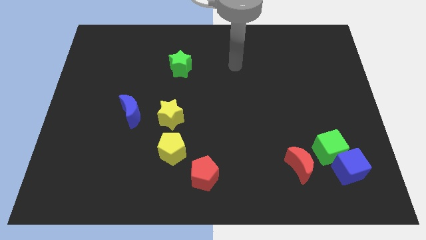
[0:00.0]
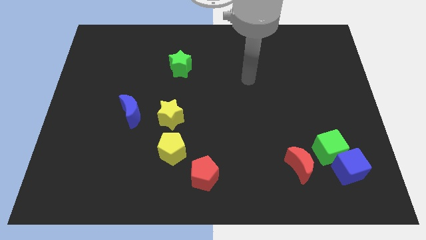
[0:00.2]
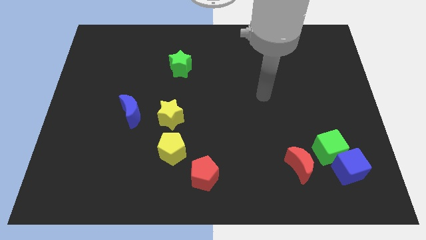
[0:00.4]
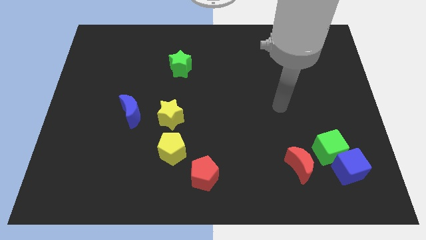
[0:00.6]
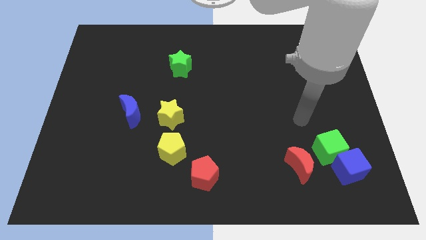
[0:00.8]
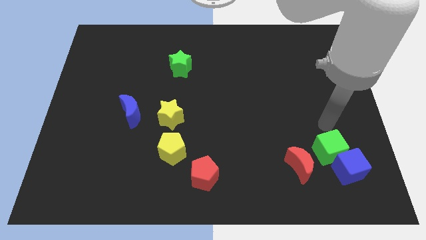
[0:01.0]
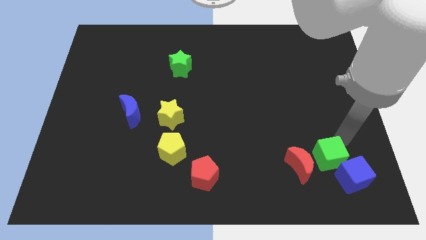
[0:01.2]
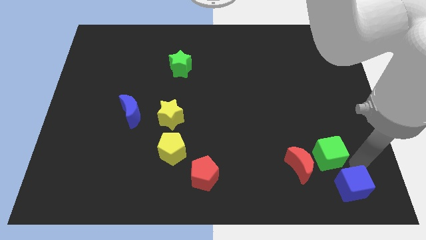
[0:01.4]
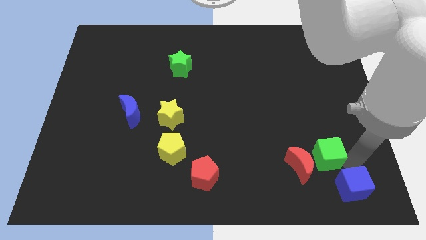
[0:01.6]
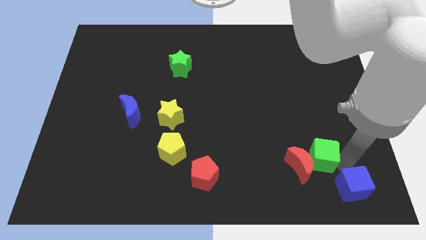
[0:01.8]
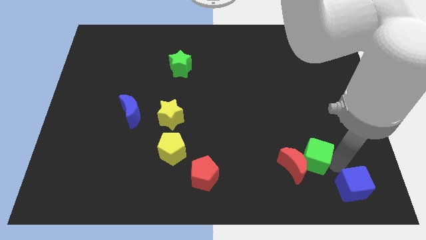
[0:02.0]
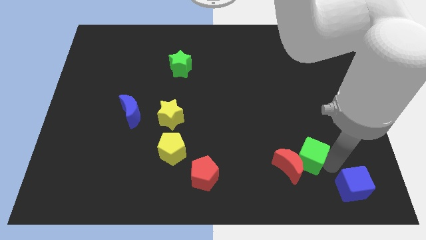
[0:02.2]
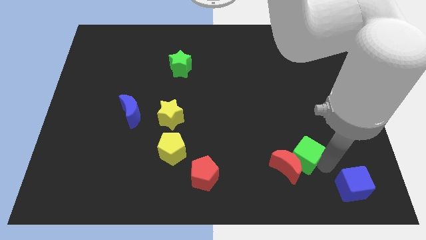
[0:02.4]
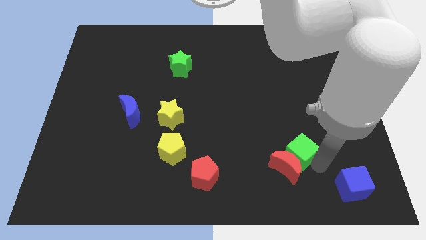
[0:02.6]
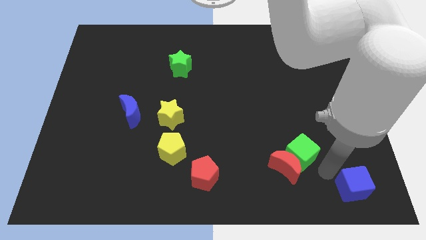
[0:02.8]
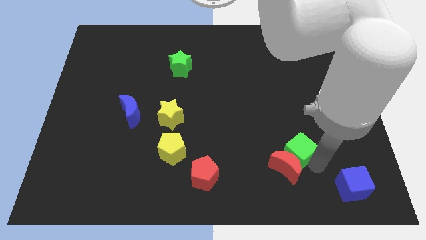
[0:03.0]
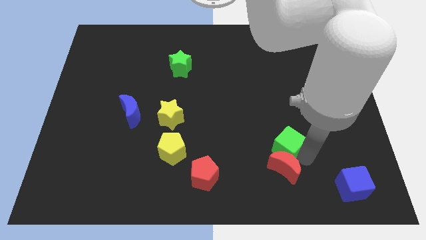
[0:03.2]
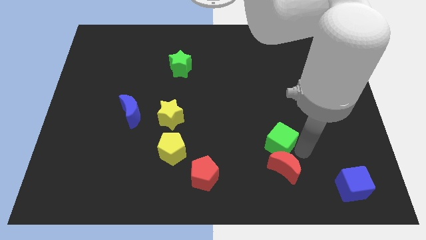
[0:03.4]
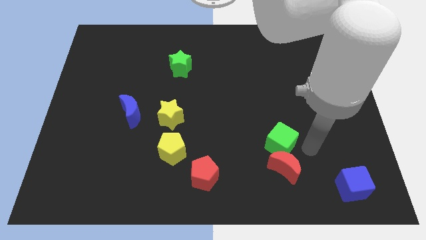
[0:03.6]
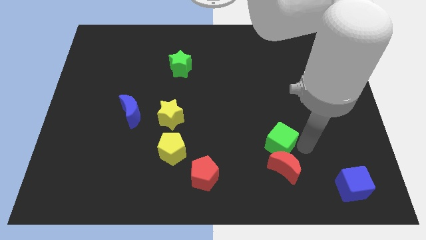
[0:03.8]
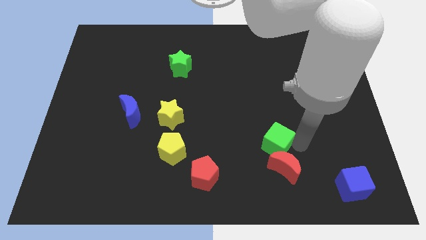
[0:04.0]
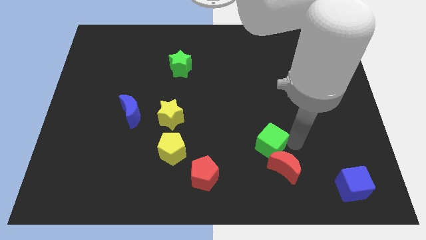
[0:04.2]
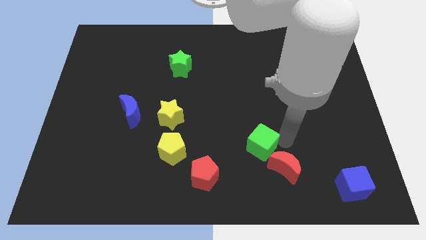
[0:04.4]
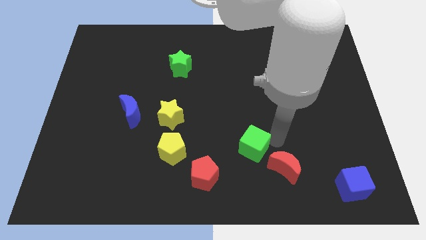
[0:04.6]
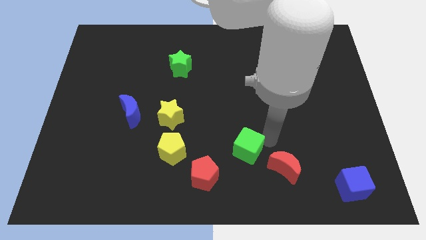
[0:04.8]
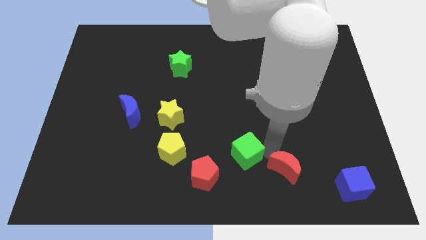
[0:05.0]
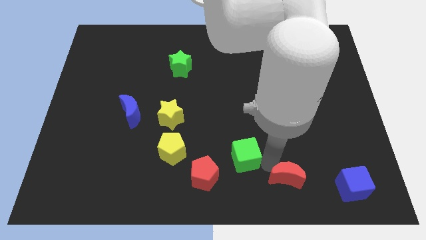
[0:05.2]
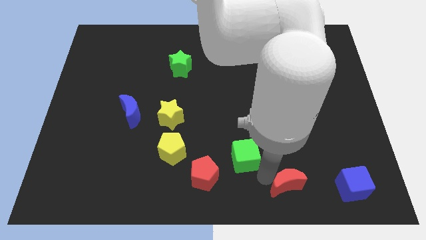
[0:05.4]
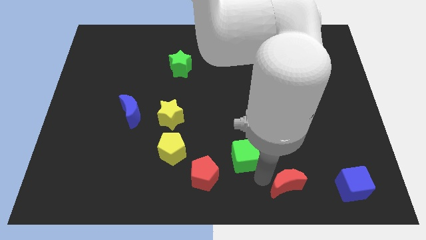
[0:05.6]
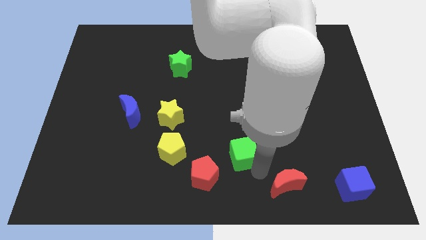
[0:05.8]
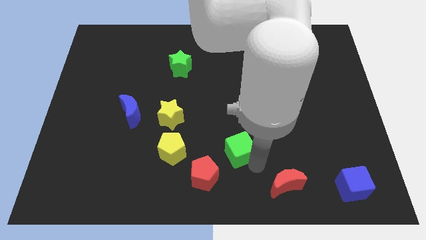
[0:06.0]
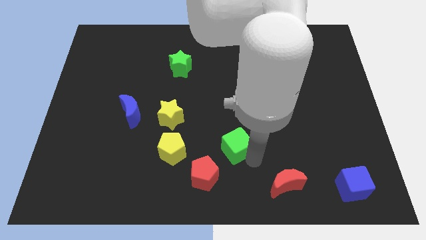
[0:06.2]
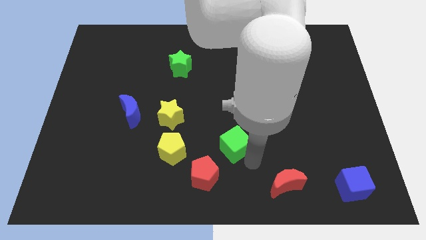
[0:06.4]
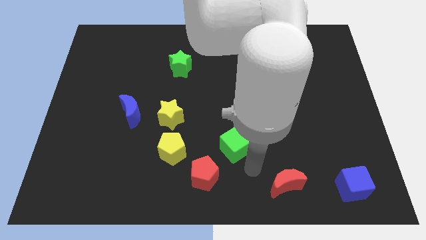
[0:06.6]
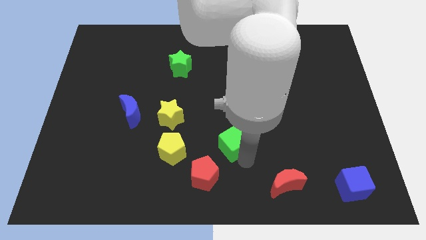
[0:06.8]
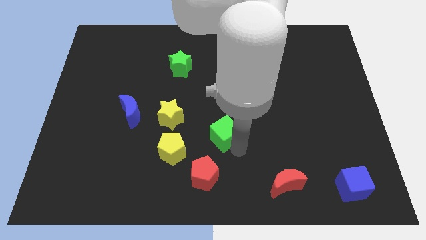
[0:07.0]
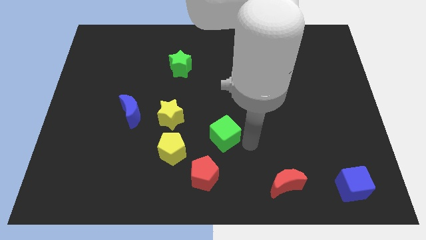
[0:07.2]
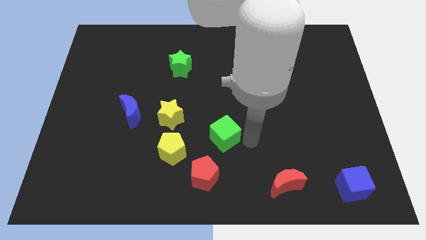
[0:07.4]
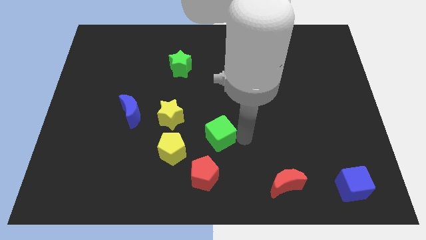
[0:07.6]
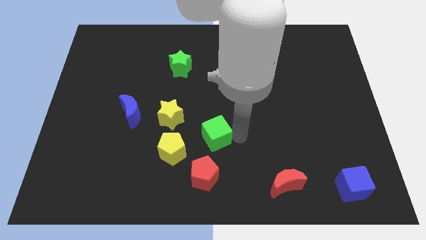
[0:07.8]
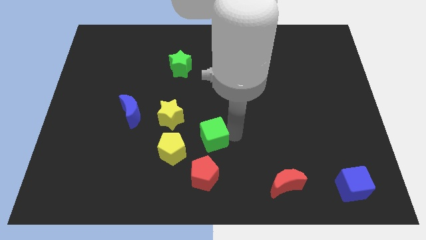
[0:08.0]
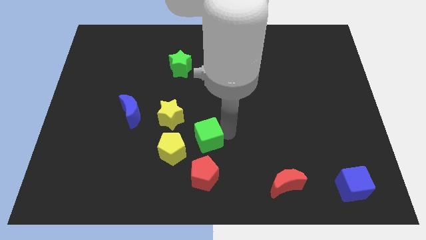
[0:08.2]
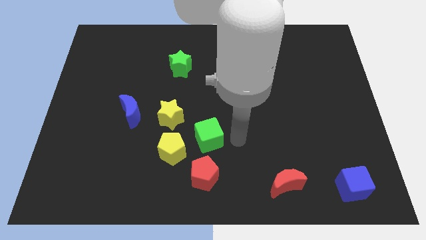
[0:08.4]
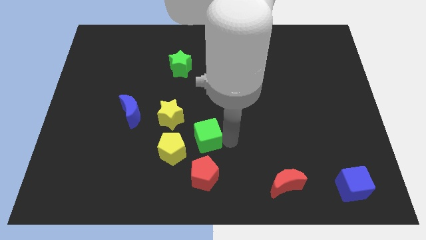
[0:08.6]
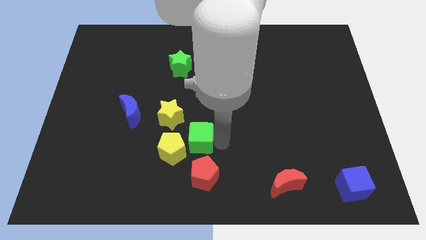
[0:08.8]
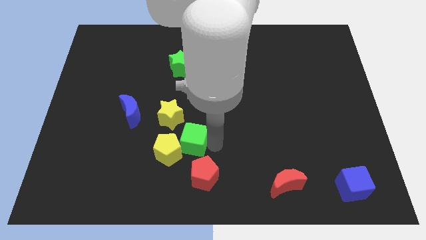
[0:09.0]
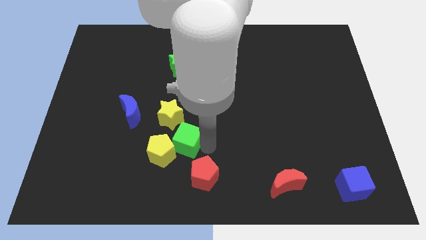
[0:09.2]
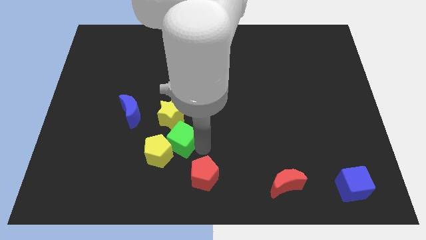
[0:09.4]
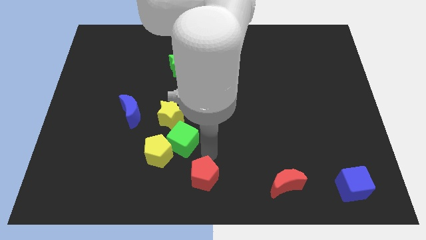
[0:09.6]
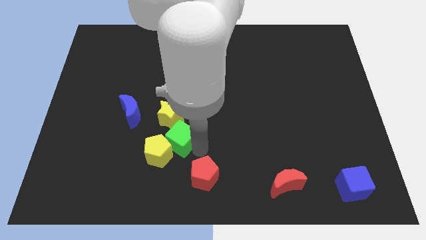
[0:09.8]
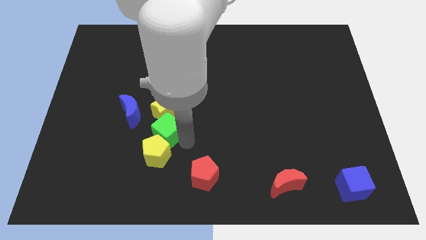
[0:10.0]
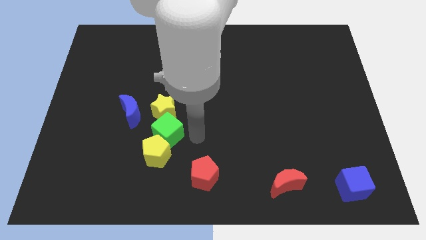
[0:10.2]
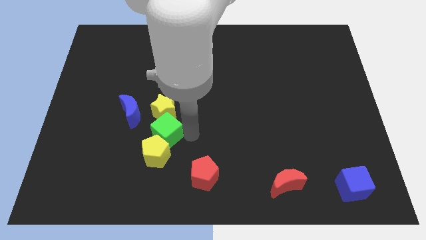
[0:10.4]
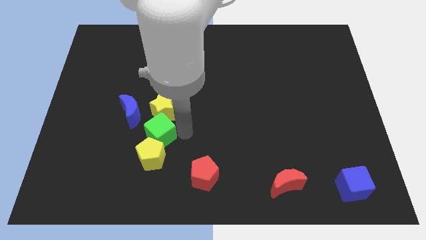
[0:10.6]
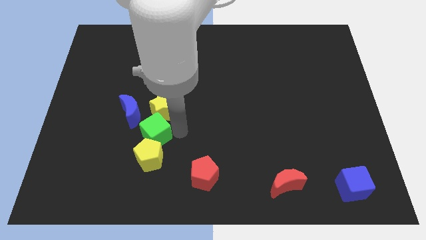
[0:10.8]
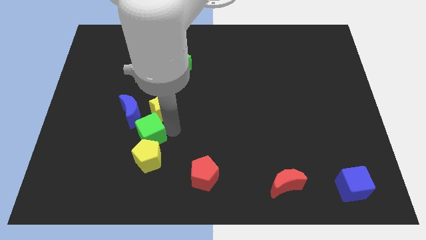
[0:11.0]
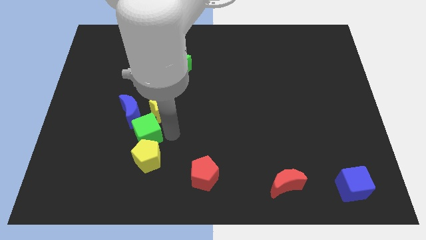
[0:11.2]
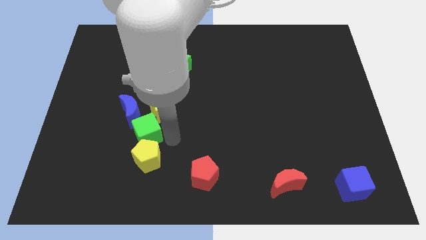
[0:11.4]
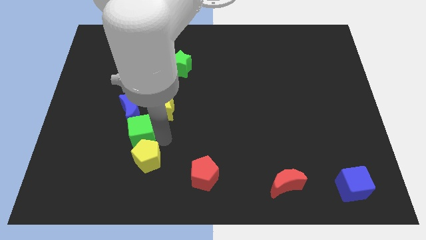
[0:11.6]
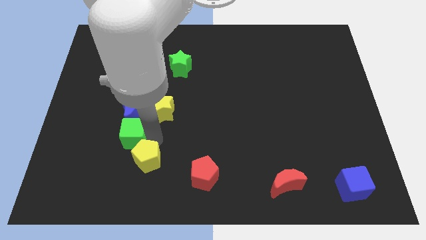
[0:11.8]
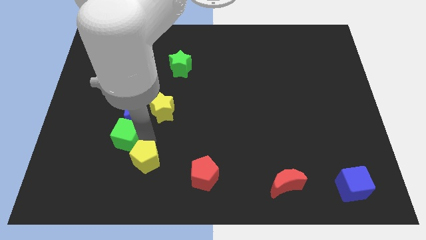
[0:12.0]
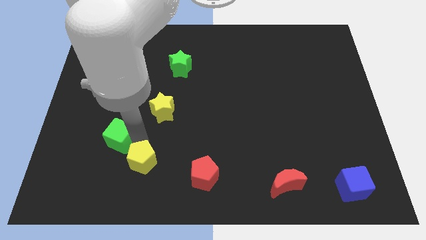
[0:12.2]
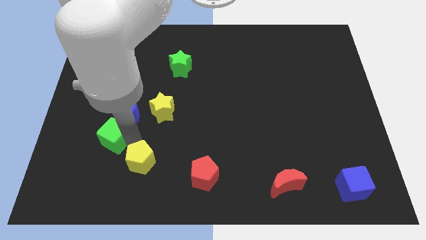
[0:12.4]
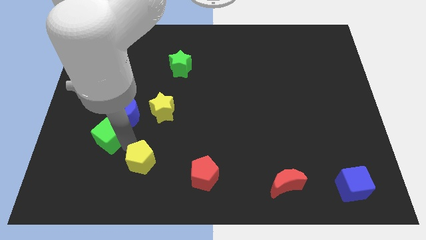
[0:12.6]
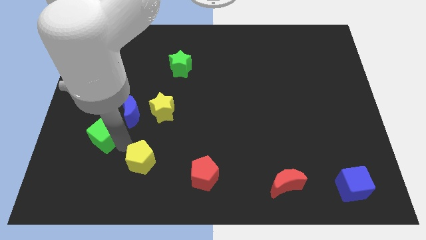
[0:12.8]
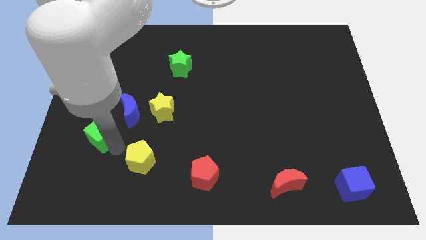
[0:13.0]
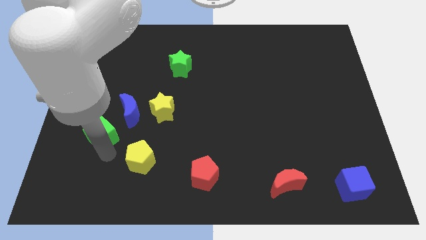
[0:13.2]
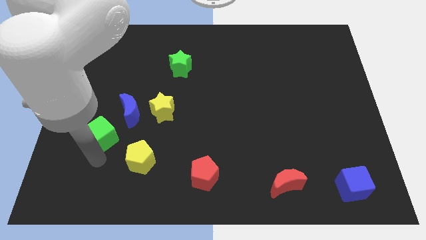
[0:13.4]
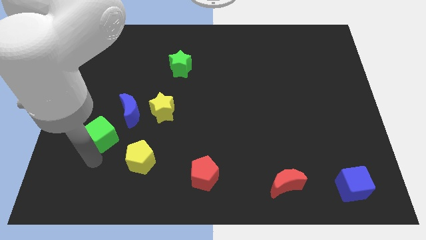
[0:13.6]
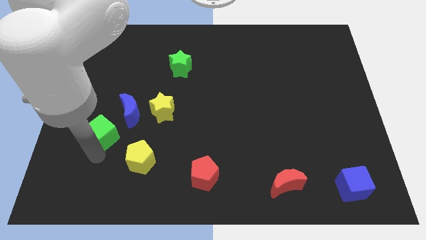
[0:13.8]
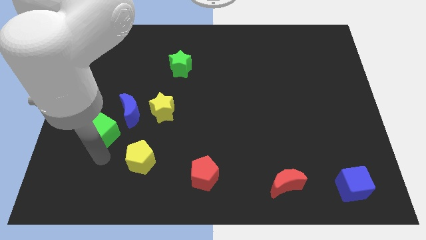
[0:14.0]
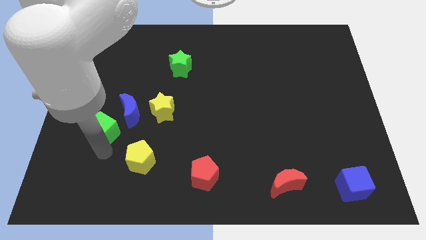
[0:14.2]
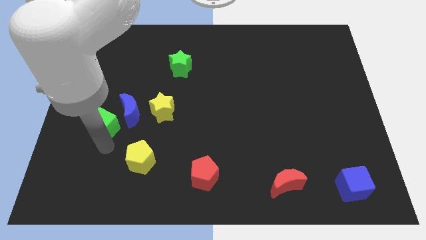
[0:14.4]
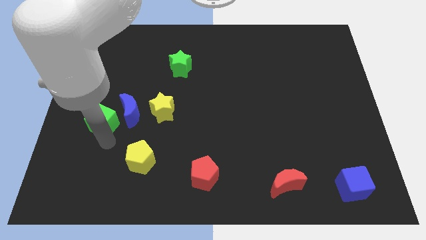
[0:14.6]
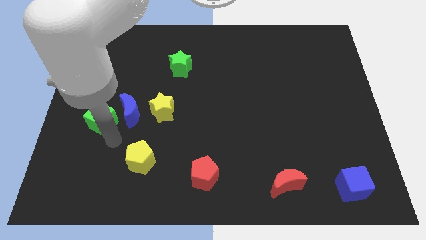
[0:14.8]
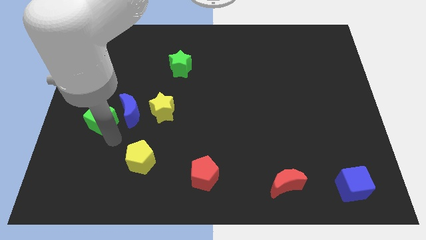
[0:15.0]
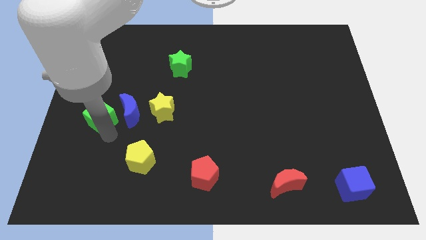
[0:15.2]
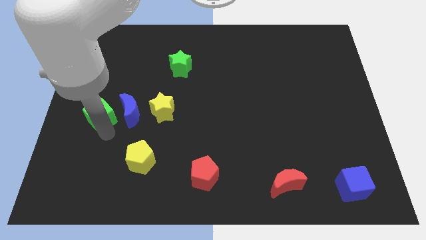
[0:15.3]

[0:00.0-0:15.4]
put the green cube to the center left
